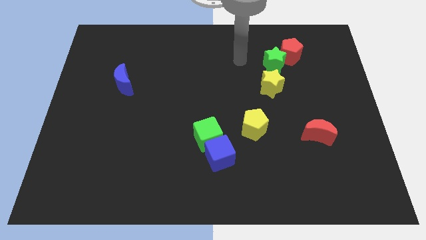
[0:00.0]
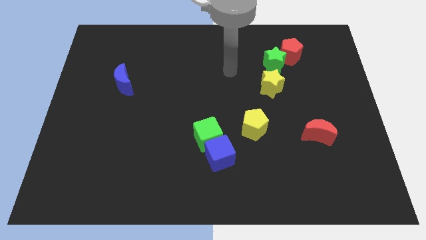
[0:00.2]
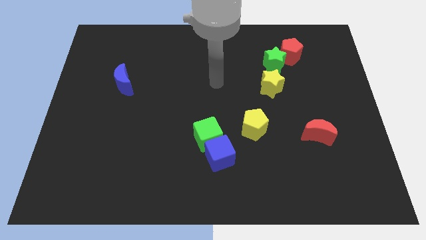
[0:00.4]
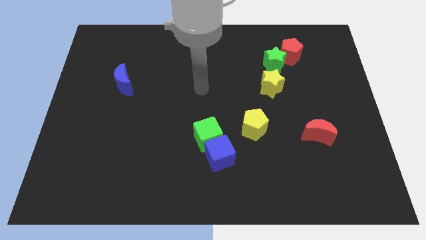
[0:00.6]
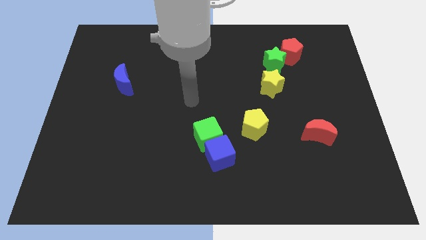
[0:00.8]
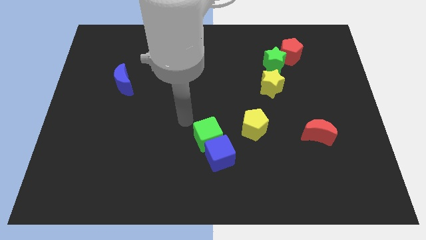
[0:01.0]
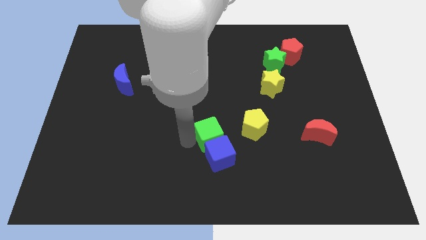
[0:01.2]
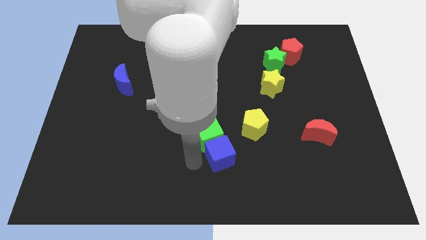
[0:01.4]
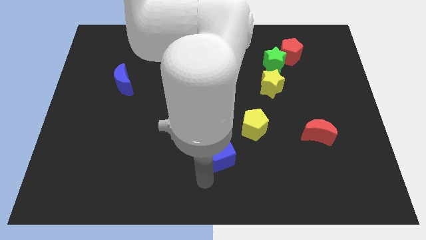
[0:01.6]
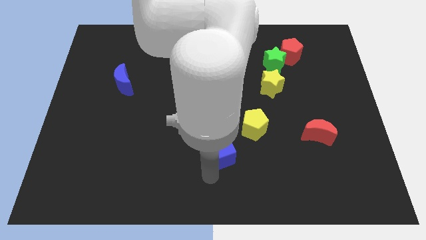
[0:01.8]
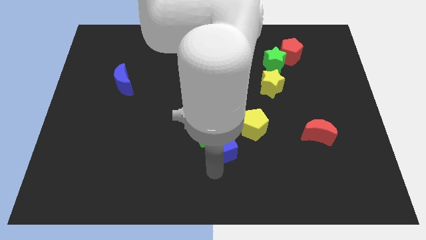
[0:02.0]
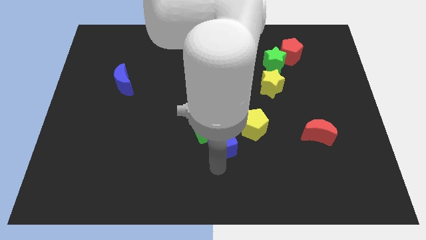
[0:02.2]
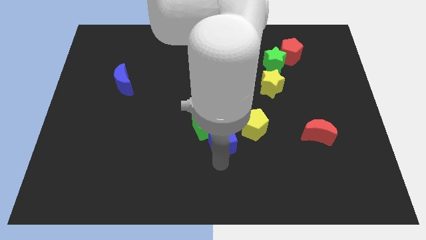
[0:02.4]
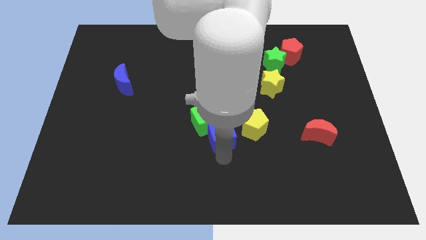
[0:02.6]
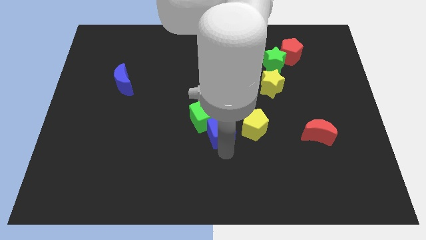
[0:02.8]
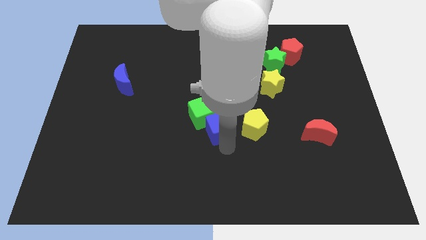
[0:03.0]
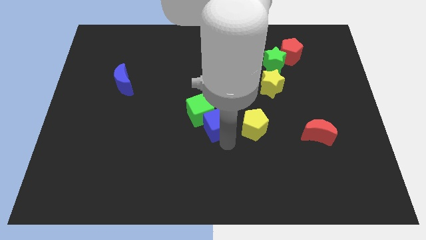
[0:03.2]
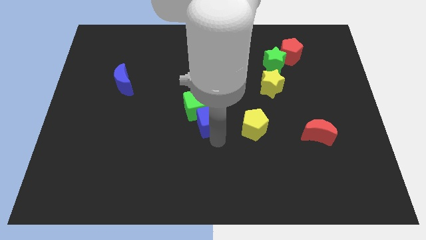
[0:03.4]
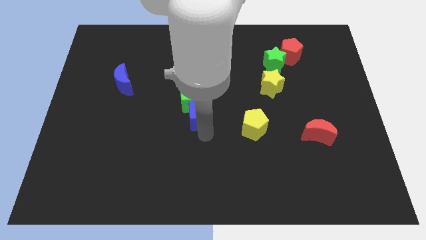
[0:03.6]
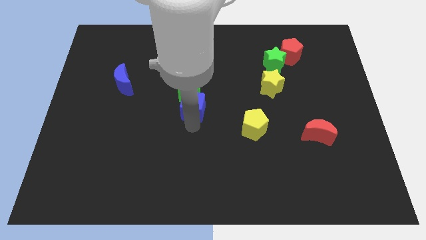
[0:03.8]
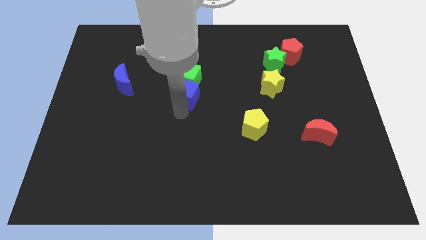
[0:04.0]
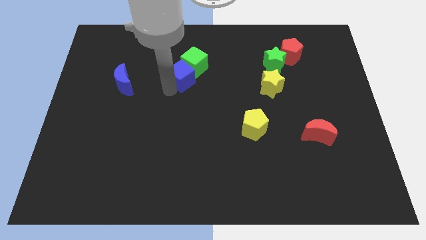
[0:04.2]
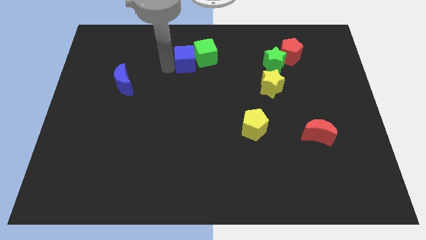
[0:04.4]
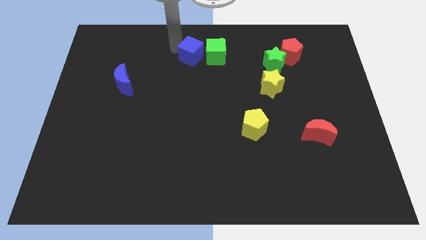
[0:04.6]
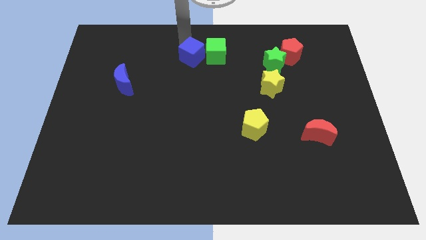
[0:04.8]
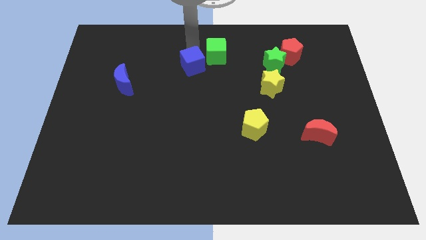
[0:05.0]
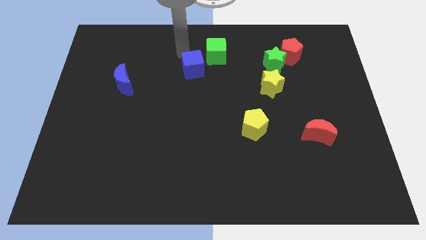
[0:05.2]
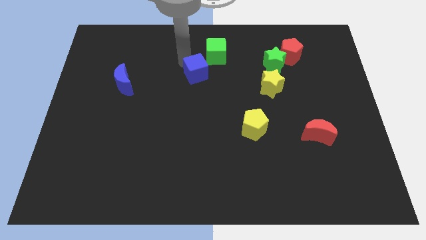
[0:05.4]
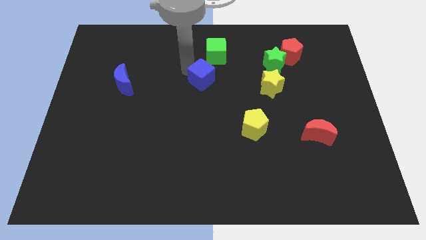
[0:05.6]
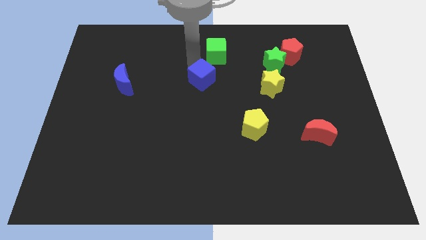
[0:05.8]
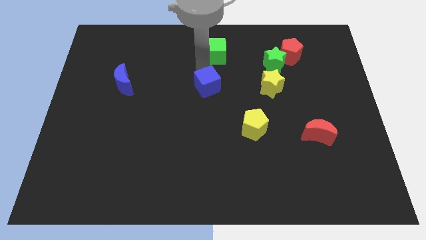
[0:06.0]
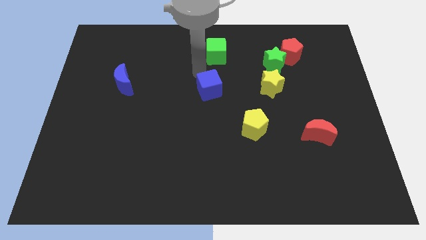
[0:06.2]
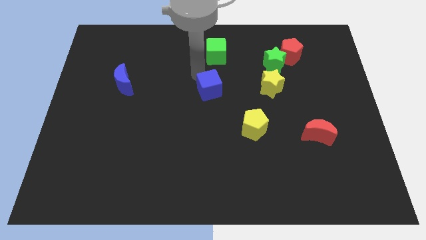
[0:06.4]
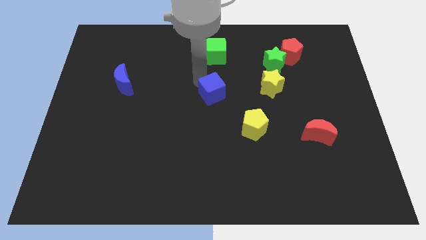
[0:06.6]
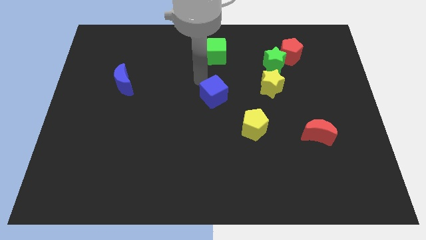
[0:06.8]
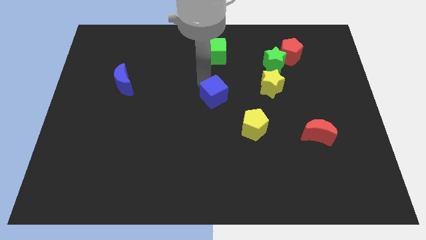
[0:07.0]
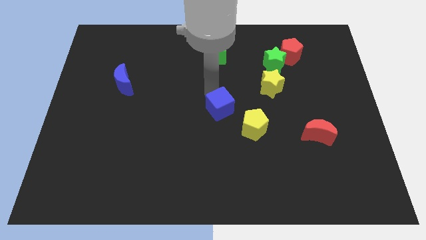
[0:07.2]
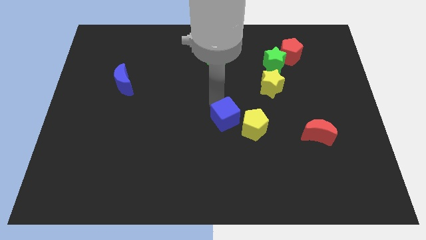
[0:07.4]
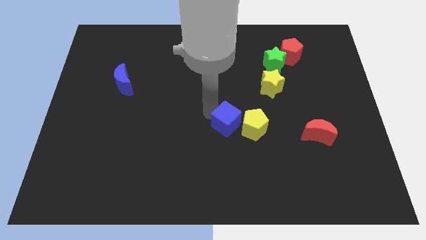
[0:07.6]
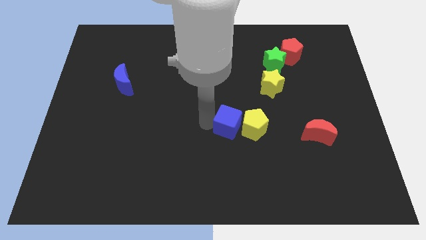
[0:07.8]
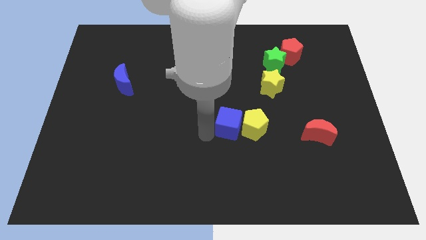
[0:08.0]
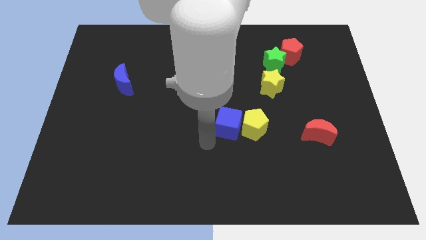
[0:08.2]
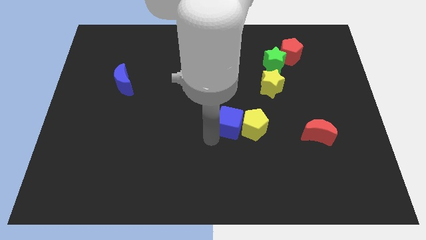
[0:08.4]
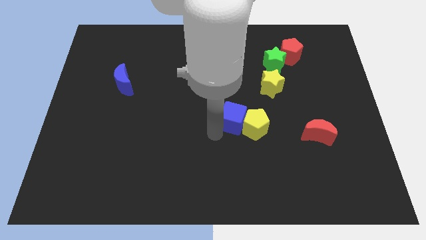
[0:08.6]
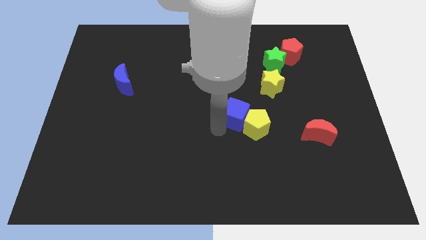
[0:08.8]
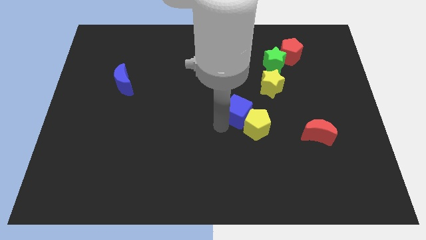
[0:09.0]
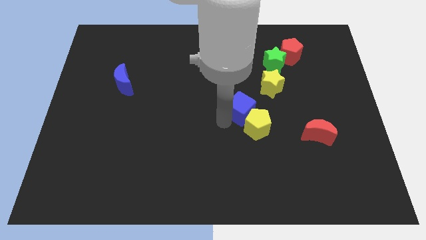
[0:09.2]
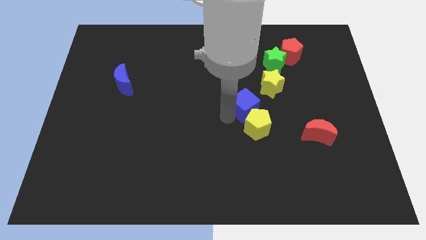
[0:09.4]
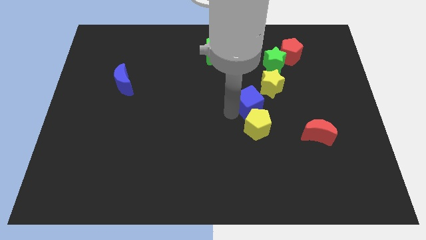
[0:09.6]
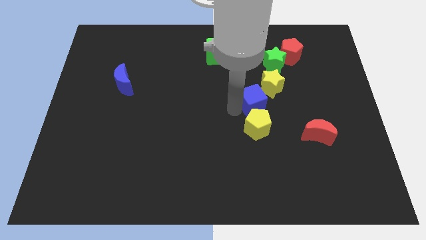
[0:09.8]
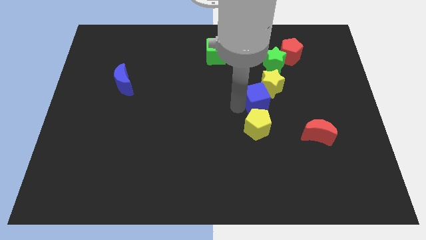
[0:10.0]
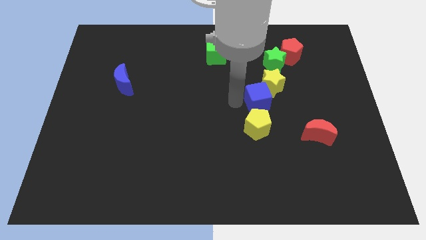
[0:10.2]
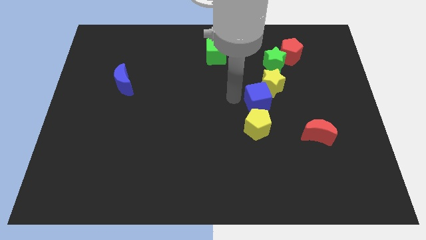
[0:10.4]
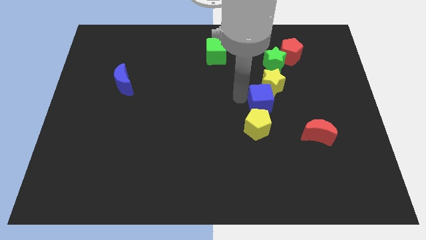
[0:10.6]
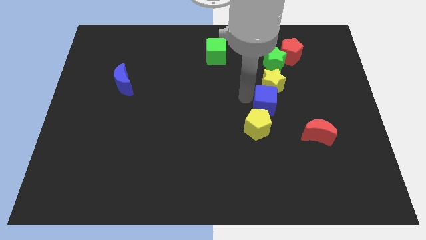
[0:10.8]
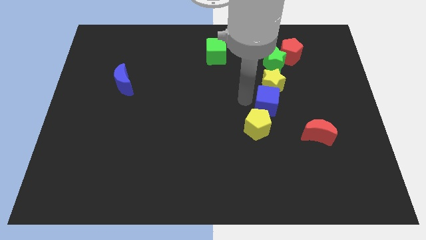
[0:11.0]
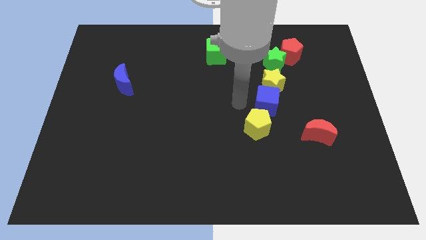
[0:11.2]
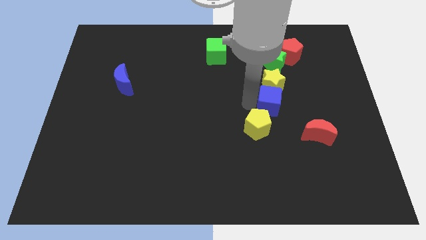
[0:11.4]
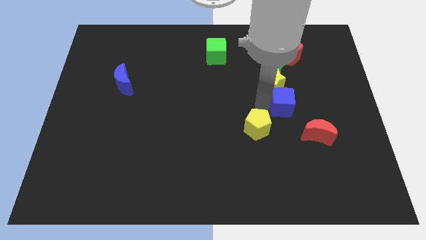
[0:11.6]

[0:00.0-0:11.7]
move the blue cube up and right

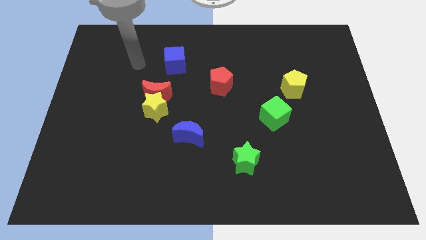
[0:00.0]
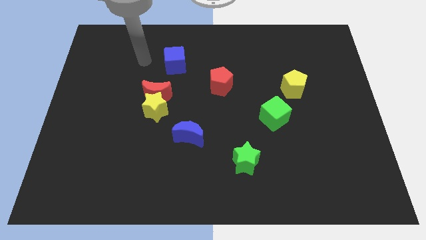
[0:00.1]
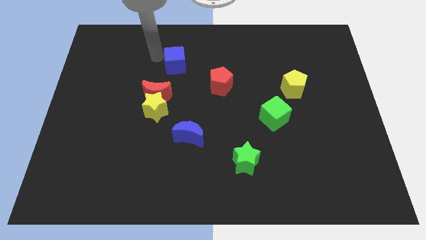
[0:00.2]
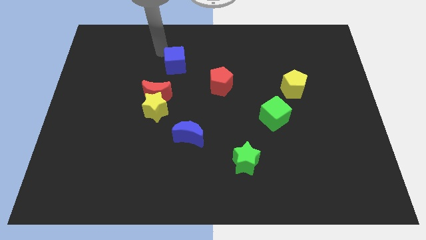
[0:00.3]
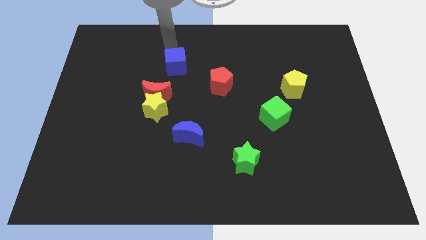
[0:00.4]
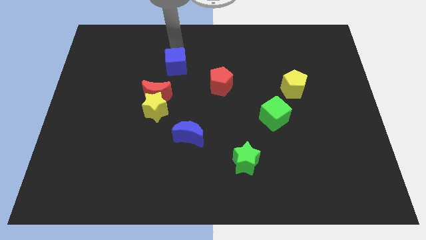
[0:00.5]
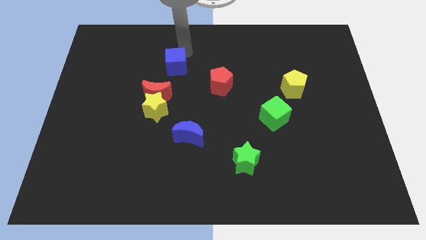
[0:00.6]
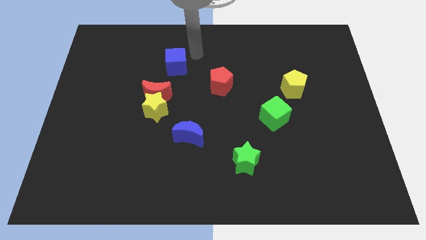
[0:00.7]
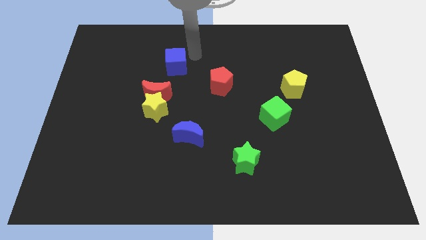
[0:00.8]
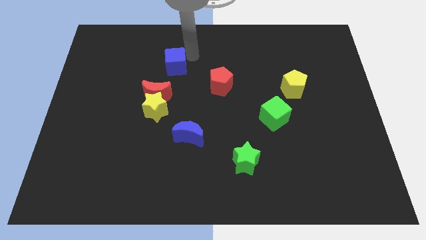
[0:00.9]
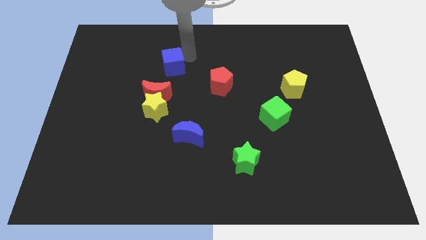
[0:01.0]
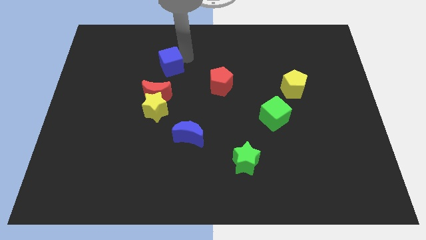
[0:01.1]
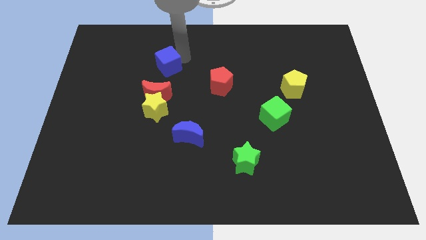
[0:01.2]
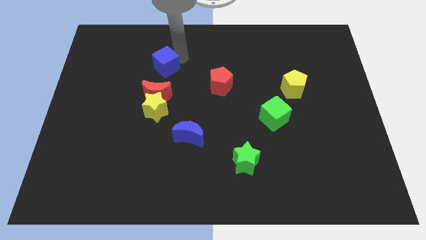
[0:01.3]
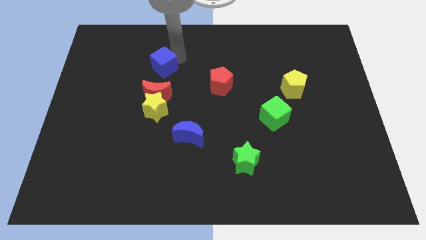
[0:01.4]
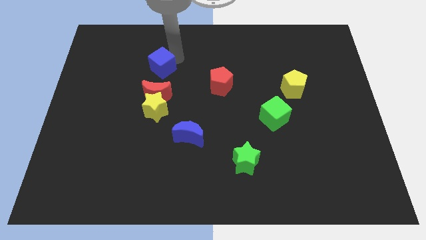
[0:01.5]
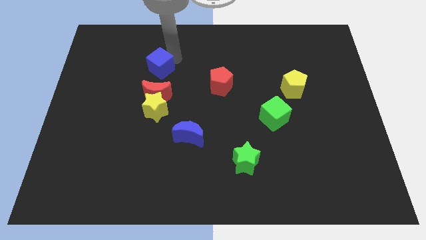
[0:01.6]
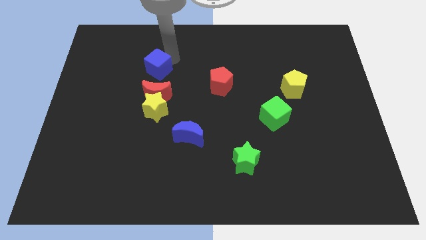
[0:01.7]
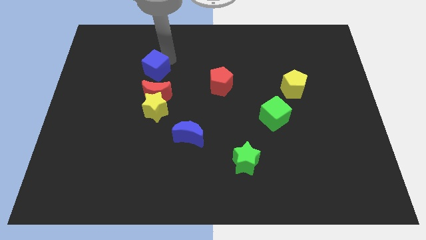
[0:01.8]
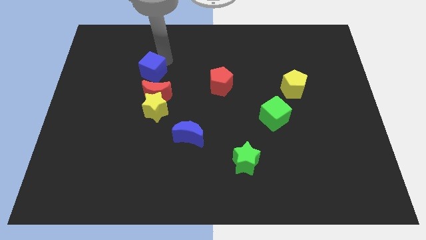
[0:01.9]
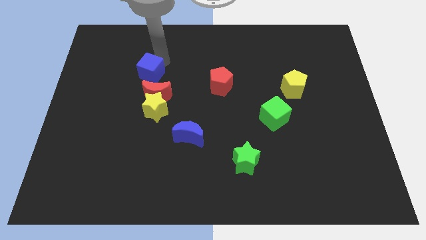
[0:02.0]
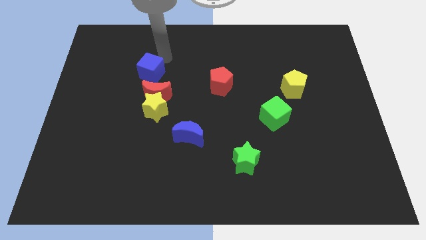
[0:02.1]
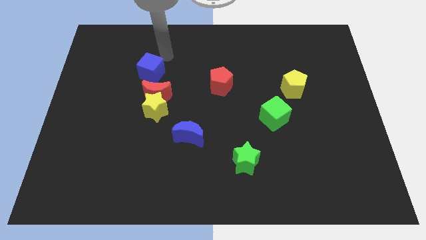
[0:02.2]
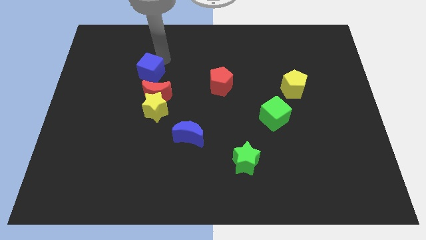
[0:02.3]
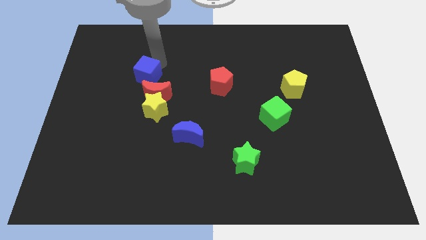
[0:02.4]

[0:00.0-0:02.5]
push the blue cube down and to the left diagonally a little
